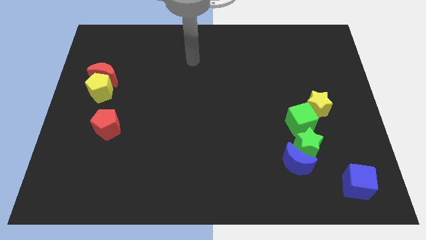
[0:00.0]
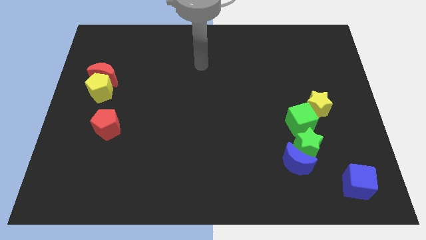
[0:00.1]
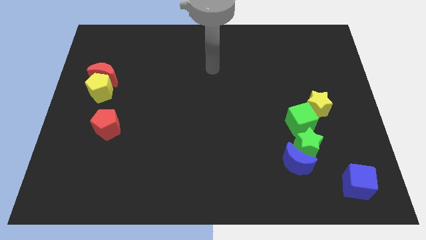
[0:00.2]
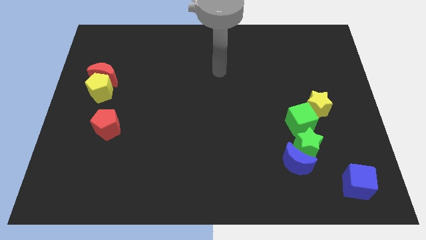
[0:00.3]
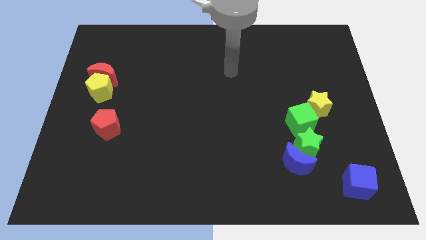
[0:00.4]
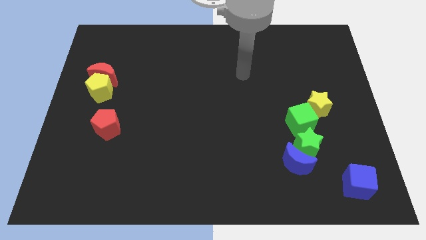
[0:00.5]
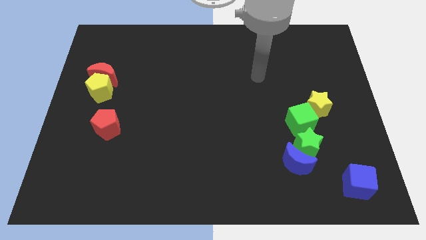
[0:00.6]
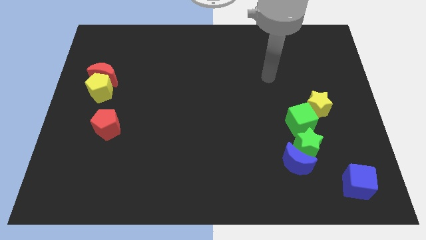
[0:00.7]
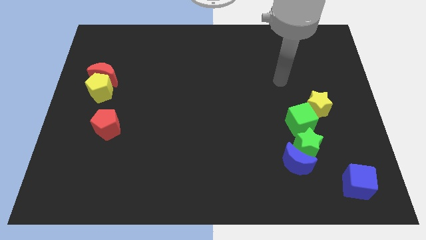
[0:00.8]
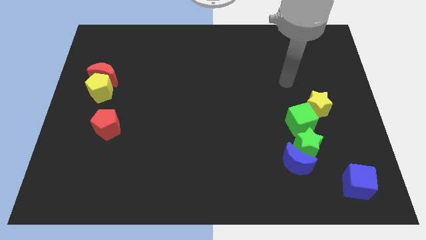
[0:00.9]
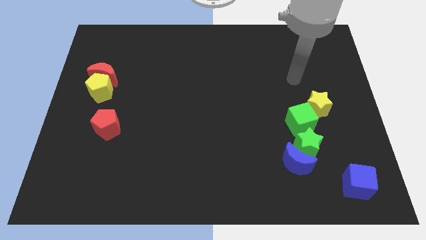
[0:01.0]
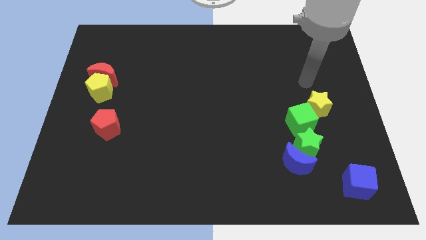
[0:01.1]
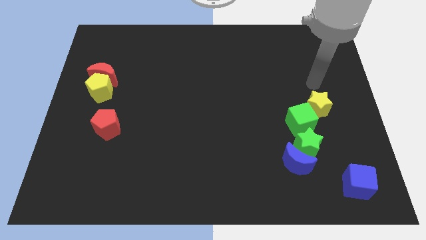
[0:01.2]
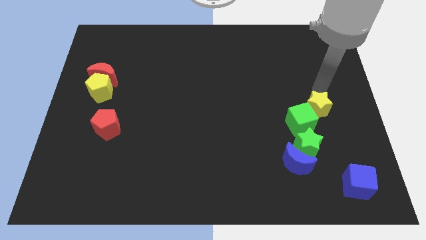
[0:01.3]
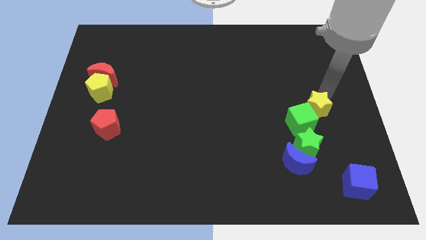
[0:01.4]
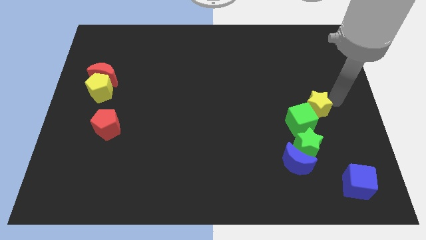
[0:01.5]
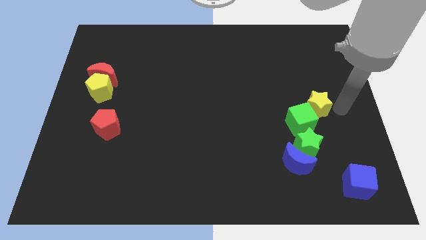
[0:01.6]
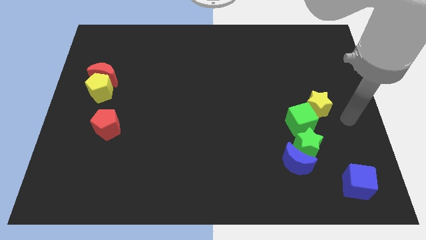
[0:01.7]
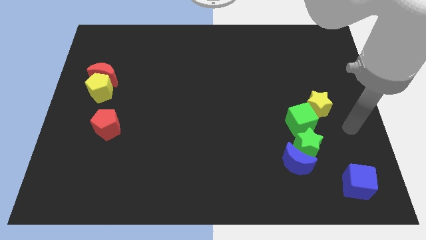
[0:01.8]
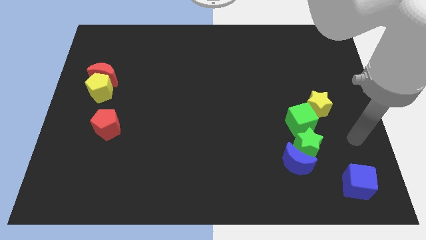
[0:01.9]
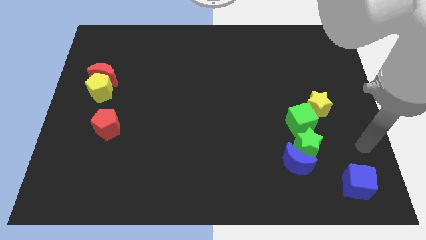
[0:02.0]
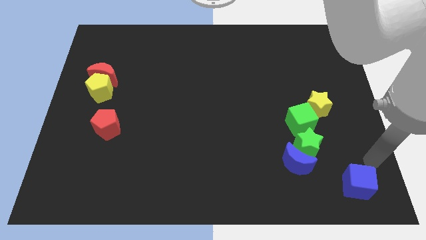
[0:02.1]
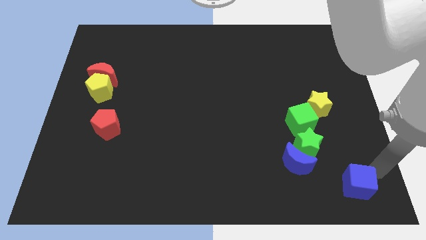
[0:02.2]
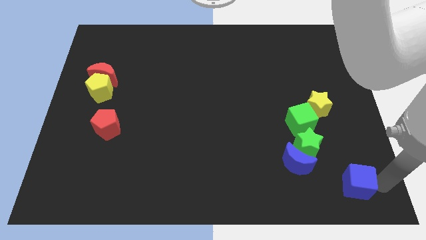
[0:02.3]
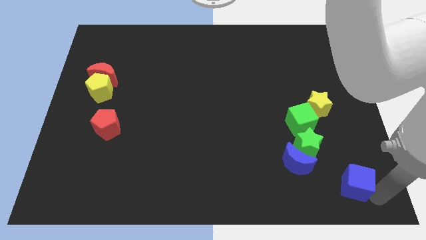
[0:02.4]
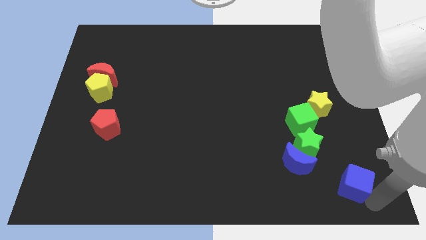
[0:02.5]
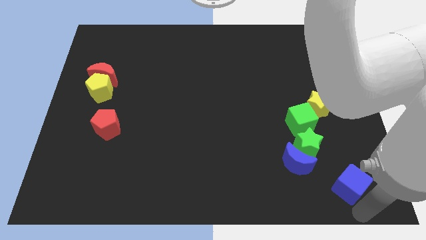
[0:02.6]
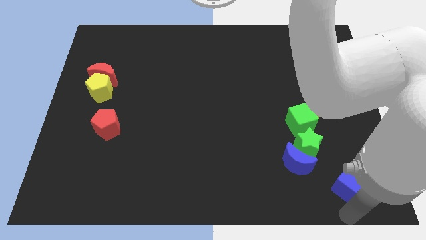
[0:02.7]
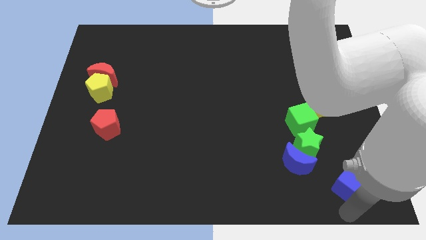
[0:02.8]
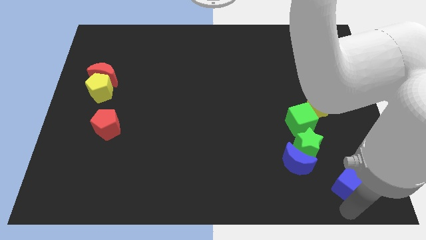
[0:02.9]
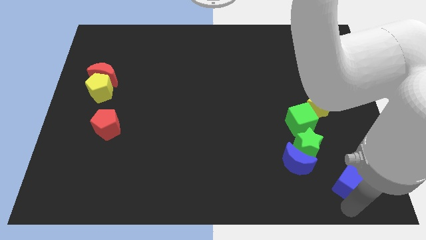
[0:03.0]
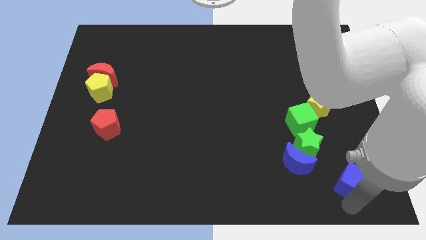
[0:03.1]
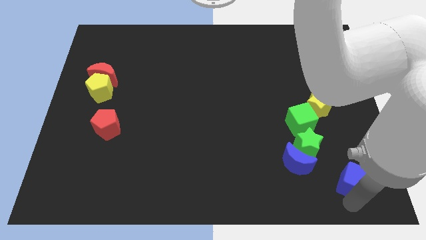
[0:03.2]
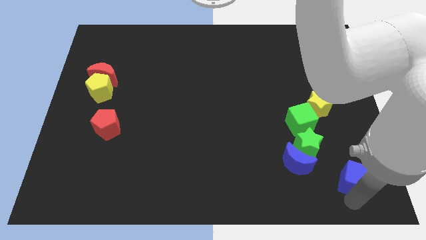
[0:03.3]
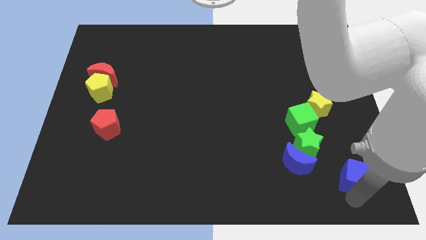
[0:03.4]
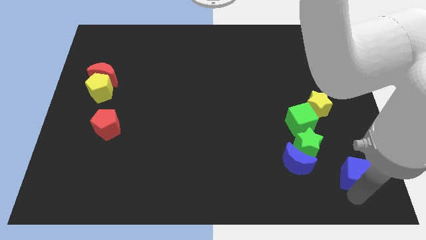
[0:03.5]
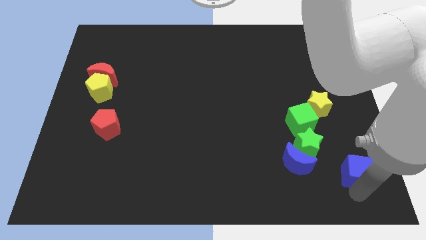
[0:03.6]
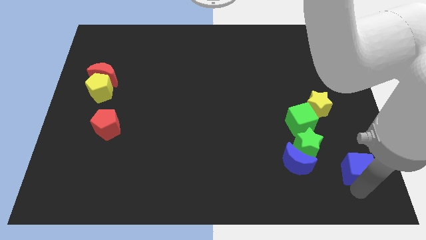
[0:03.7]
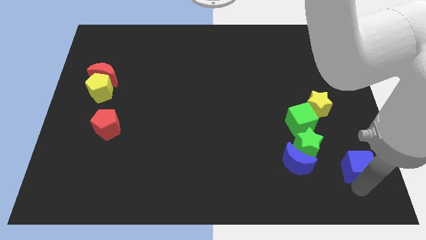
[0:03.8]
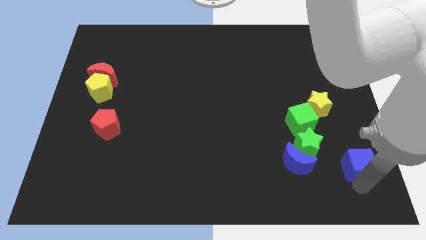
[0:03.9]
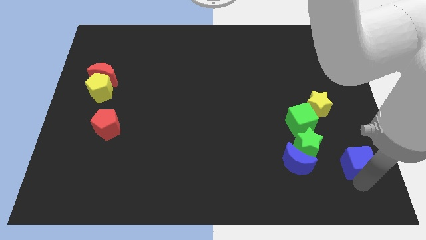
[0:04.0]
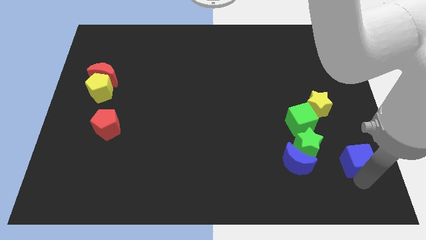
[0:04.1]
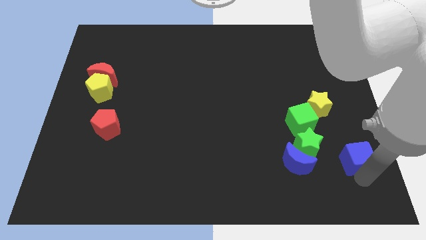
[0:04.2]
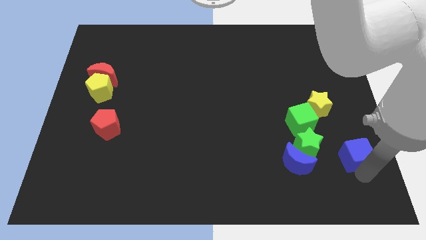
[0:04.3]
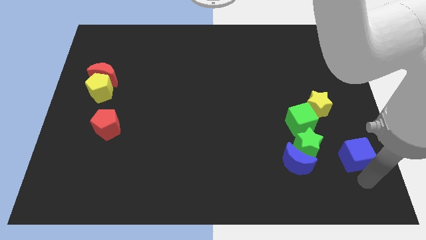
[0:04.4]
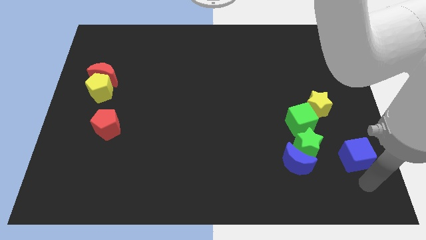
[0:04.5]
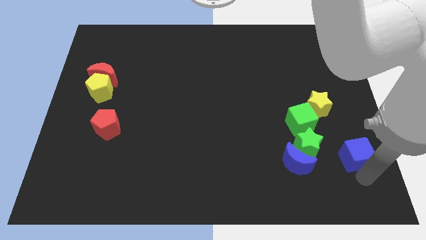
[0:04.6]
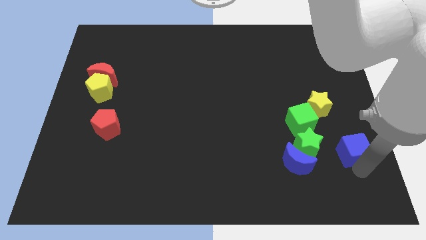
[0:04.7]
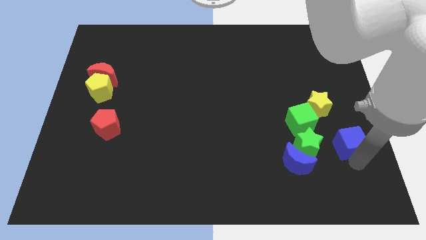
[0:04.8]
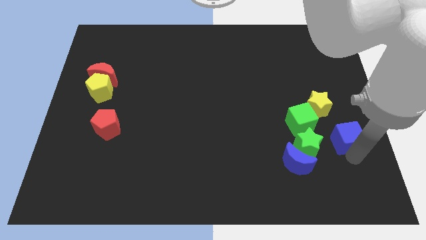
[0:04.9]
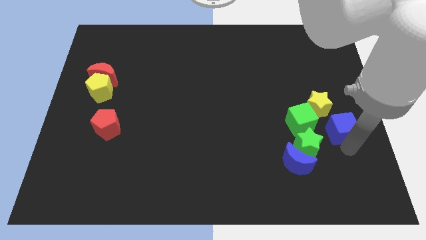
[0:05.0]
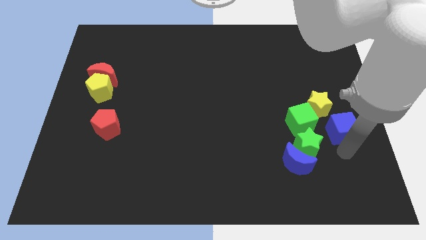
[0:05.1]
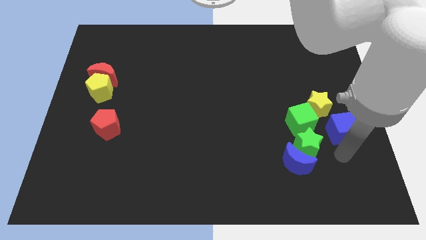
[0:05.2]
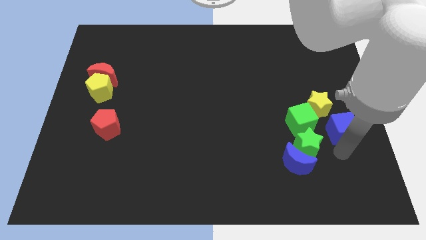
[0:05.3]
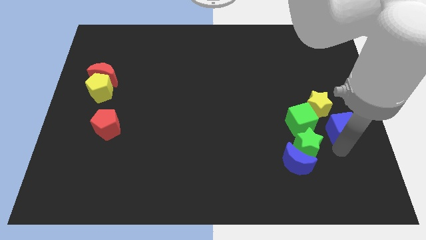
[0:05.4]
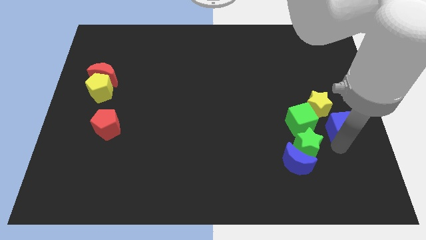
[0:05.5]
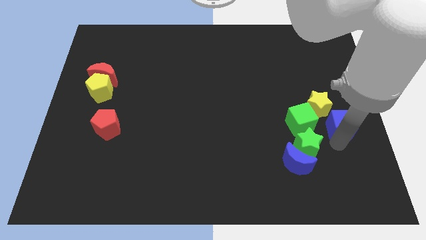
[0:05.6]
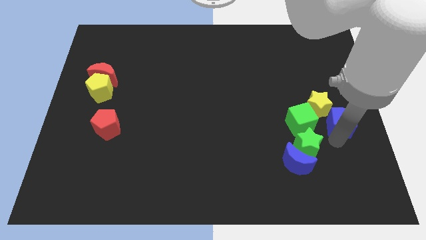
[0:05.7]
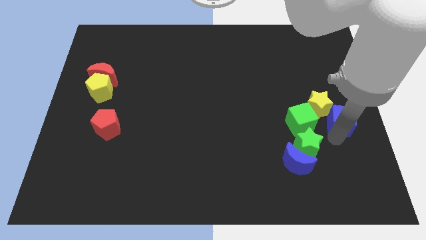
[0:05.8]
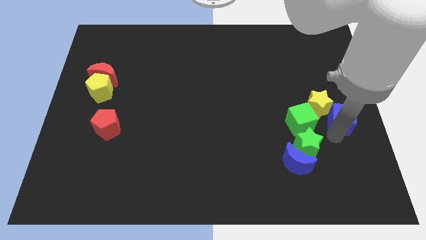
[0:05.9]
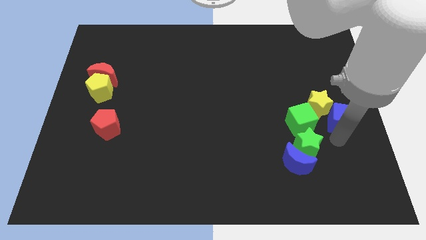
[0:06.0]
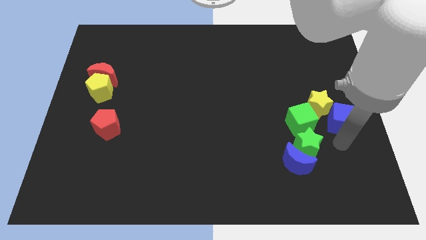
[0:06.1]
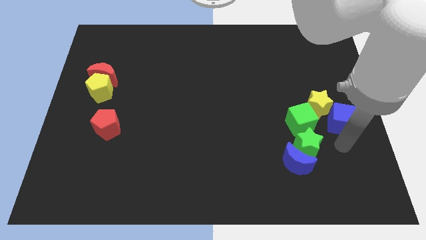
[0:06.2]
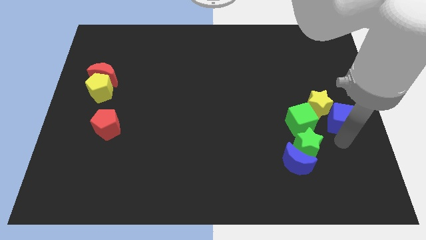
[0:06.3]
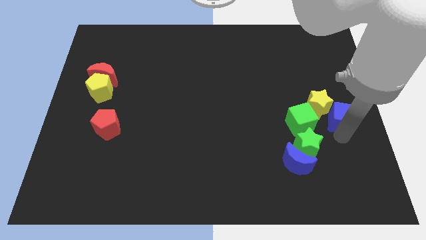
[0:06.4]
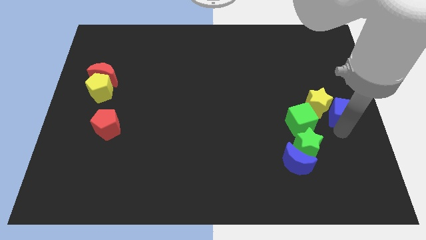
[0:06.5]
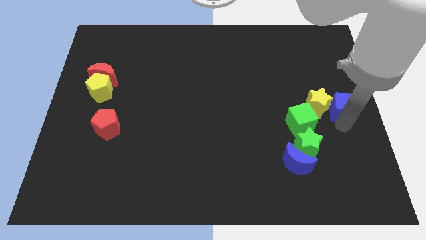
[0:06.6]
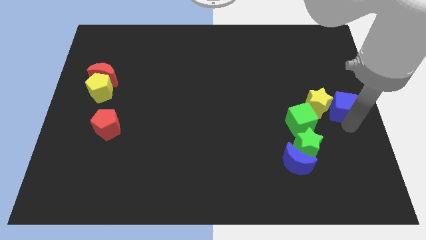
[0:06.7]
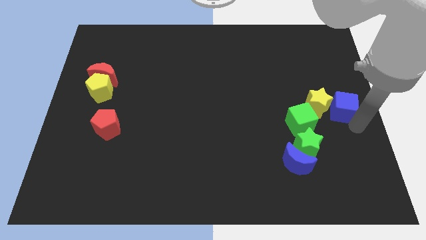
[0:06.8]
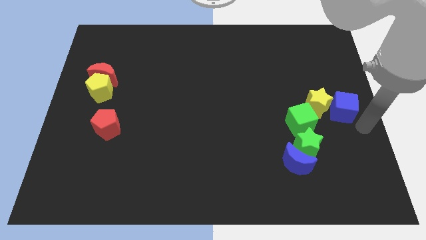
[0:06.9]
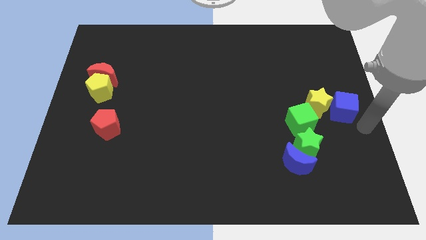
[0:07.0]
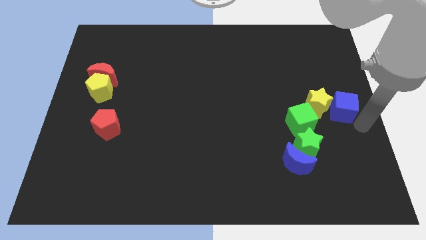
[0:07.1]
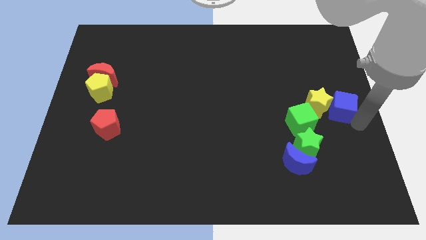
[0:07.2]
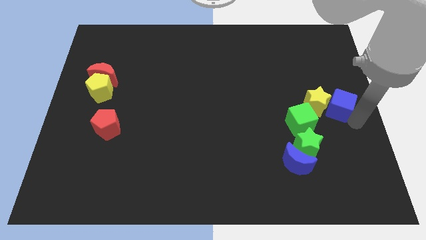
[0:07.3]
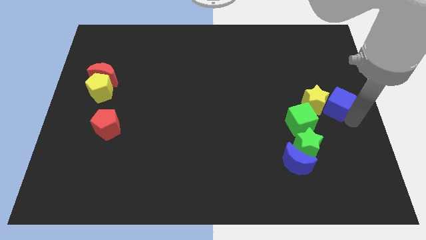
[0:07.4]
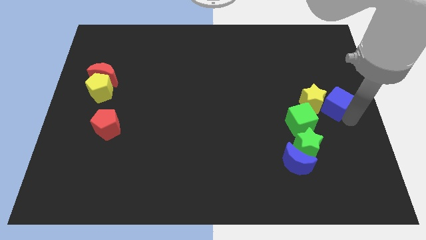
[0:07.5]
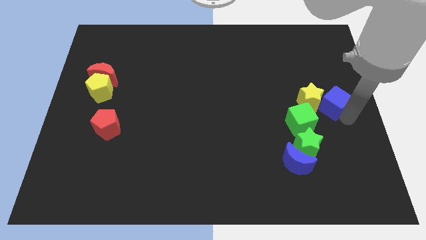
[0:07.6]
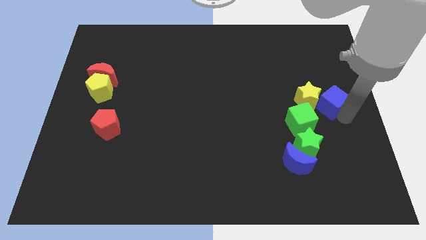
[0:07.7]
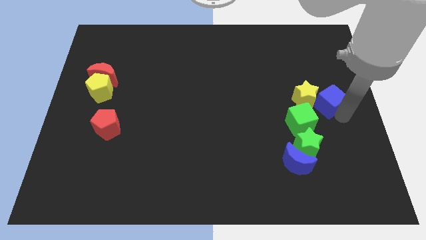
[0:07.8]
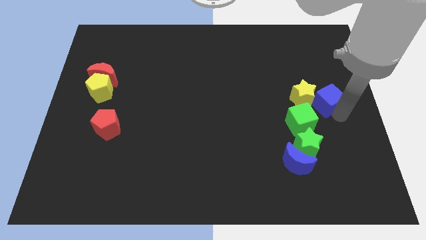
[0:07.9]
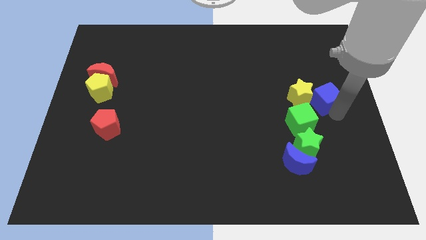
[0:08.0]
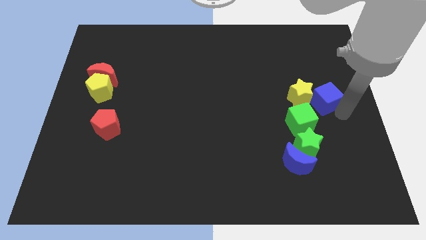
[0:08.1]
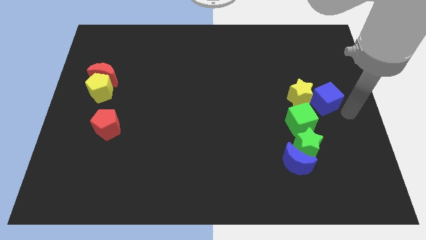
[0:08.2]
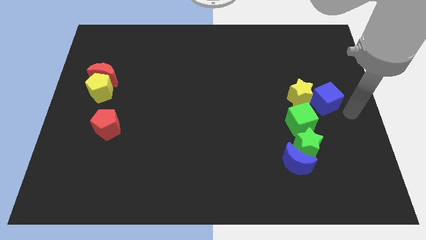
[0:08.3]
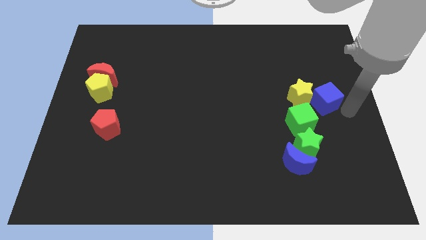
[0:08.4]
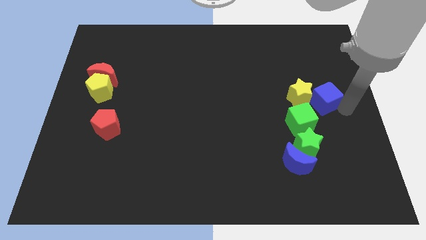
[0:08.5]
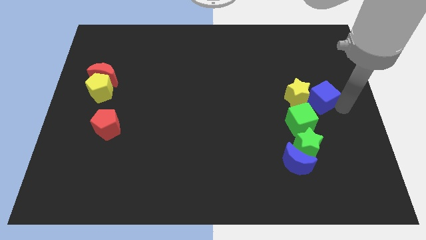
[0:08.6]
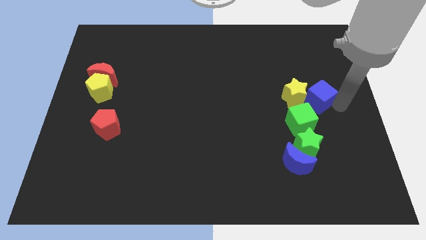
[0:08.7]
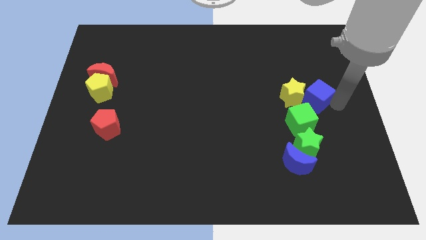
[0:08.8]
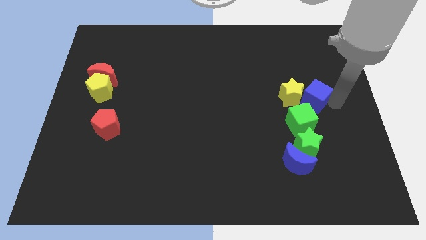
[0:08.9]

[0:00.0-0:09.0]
slide the blue cube above the green star
